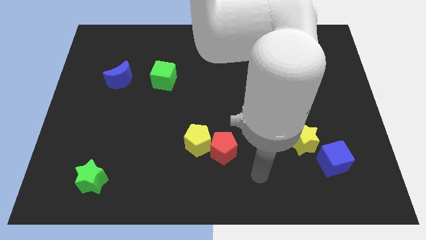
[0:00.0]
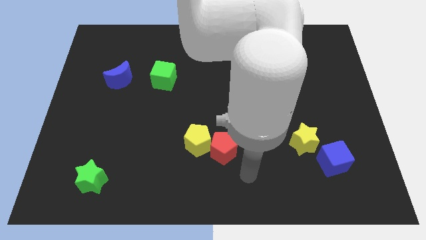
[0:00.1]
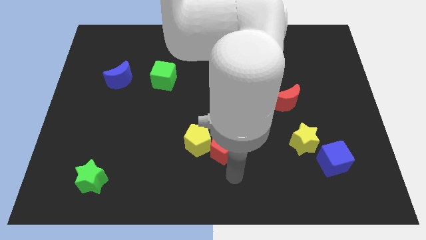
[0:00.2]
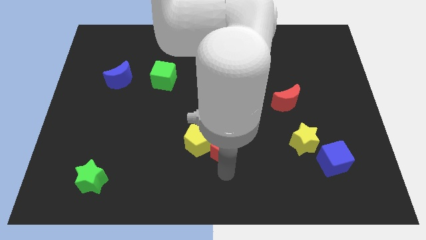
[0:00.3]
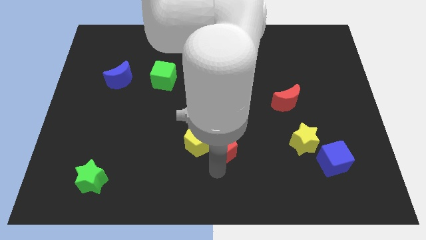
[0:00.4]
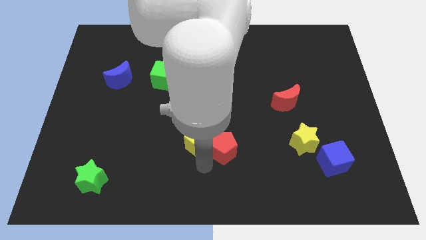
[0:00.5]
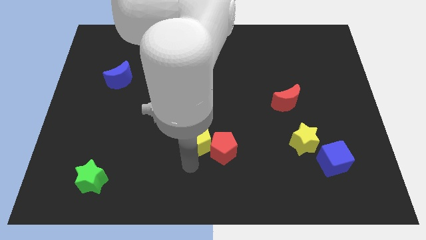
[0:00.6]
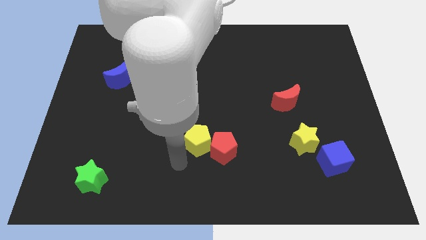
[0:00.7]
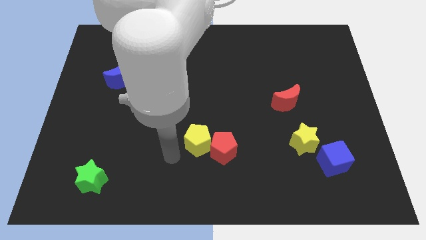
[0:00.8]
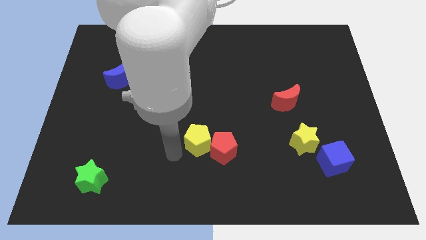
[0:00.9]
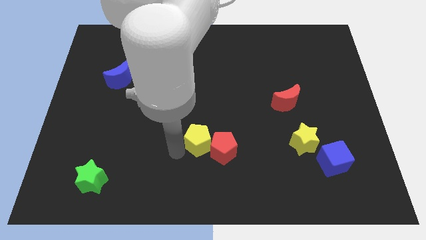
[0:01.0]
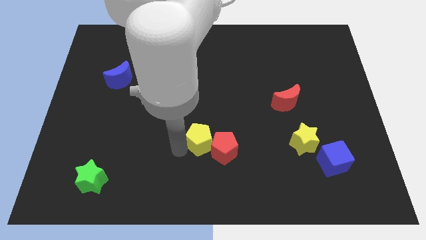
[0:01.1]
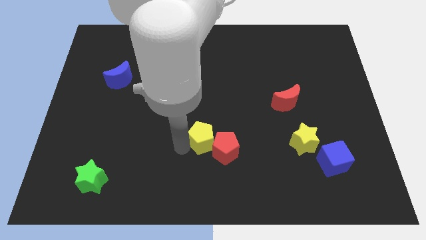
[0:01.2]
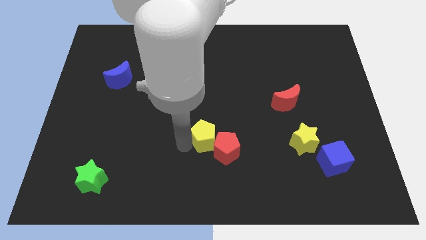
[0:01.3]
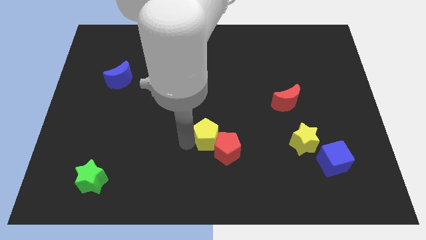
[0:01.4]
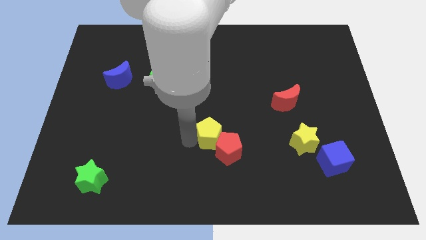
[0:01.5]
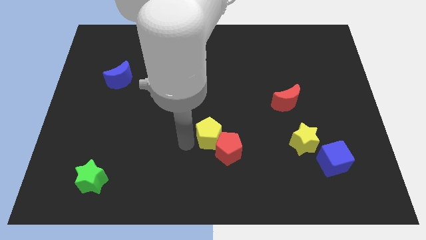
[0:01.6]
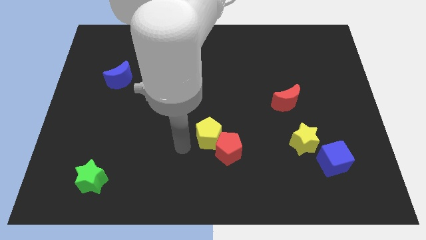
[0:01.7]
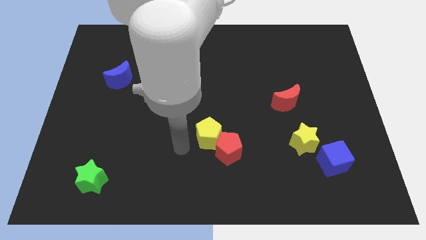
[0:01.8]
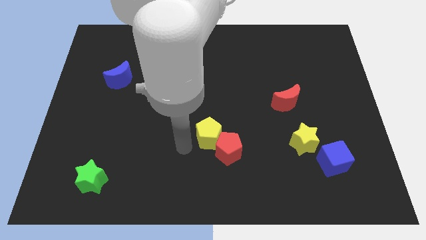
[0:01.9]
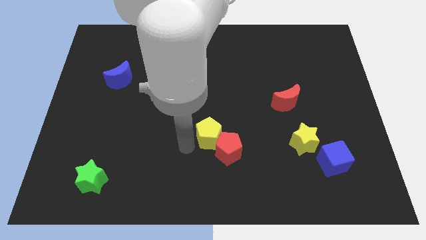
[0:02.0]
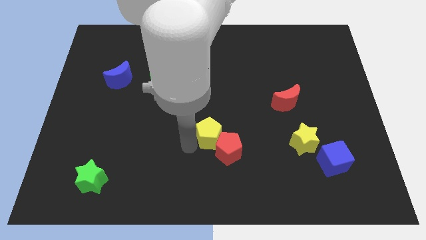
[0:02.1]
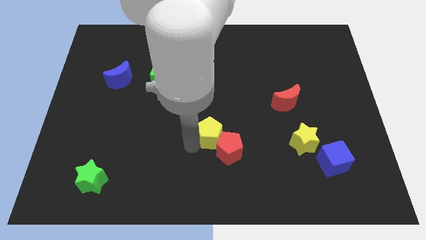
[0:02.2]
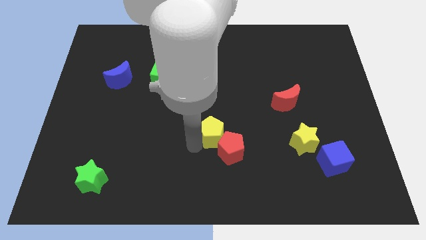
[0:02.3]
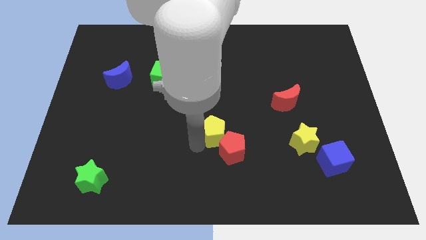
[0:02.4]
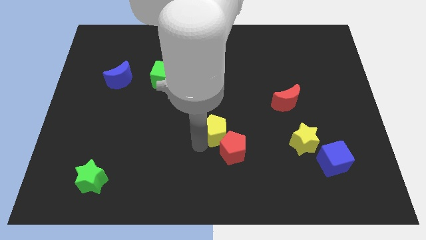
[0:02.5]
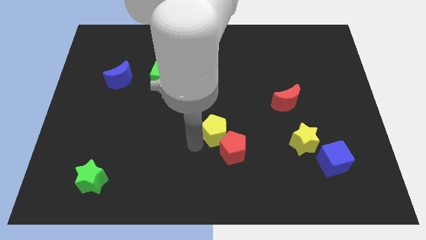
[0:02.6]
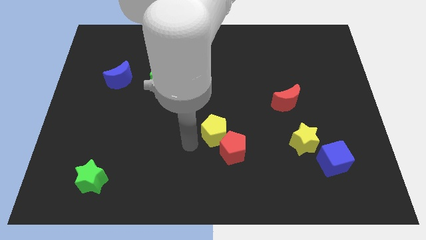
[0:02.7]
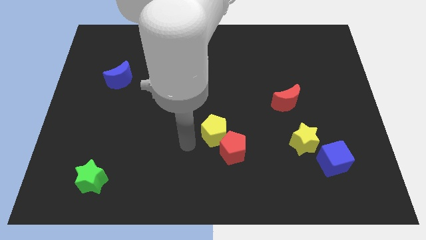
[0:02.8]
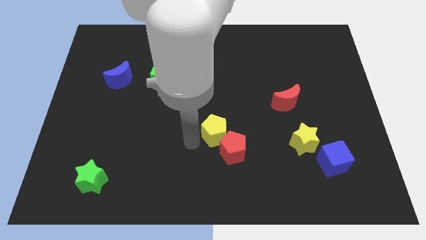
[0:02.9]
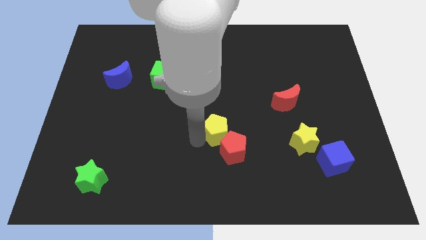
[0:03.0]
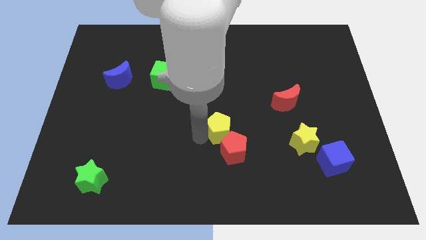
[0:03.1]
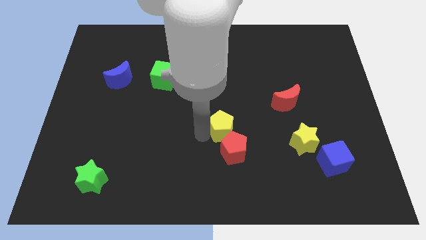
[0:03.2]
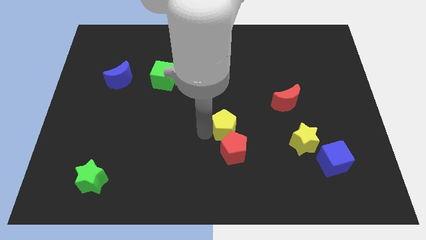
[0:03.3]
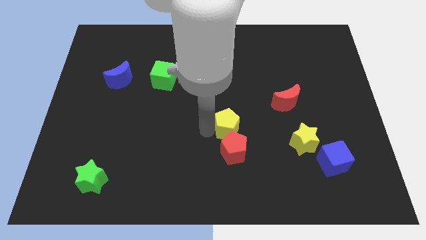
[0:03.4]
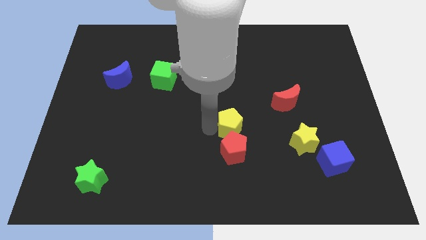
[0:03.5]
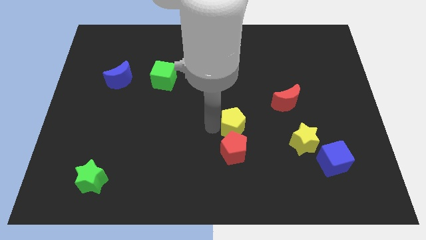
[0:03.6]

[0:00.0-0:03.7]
slightly push the yellow pentagon to the right

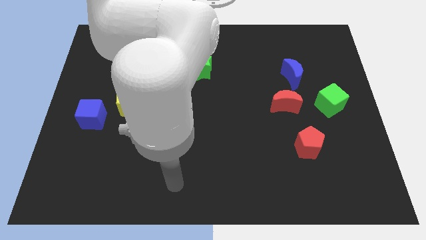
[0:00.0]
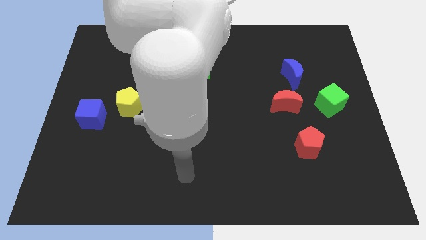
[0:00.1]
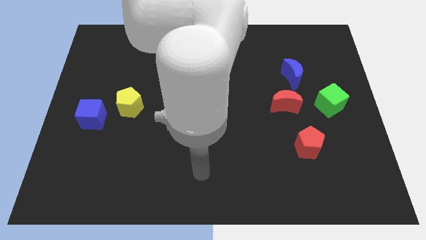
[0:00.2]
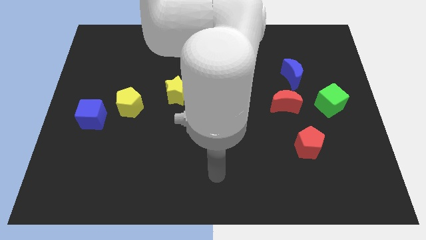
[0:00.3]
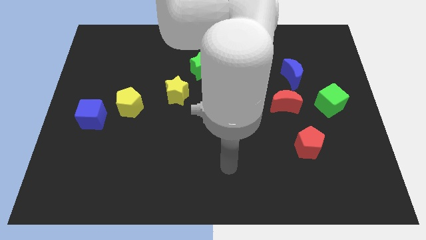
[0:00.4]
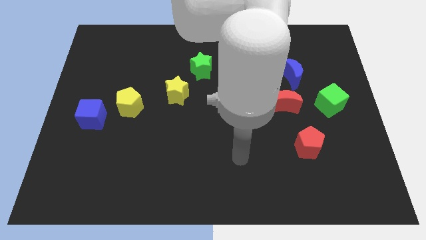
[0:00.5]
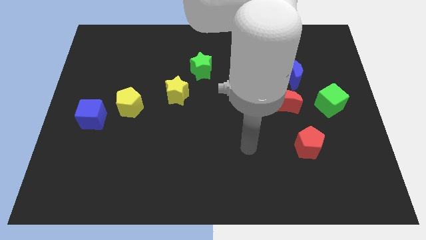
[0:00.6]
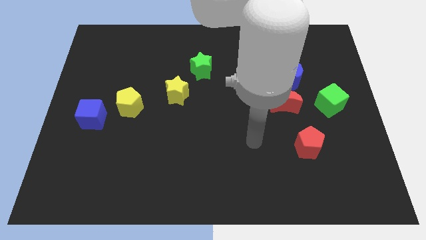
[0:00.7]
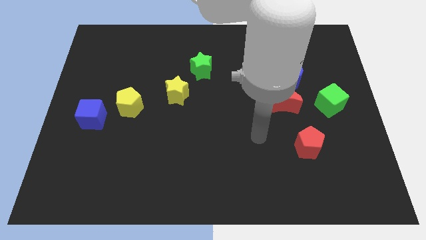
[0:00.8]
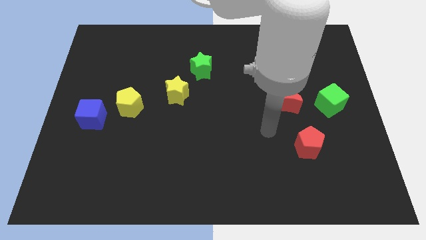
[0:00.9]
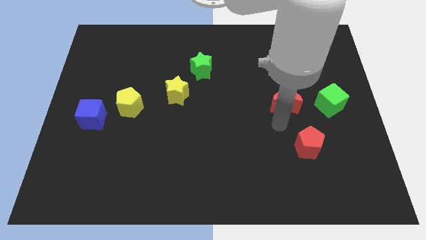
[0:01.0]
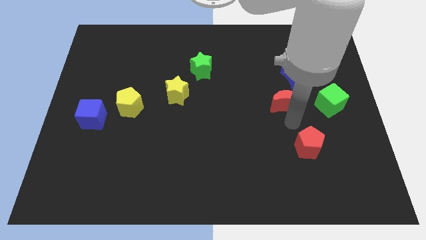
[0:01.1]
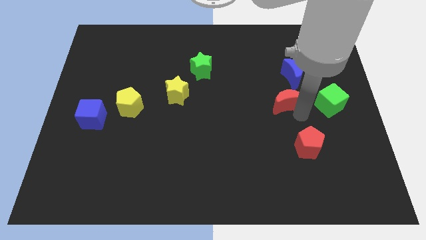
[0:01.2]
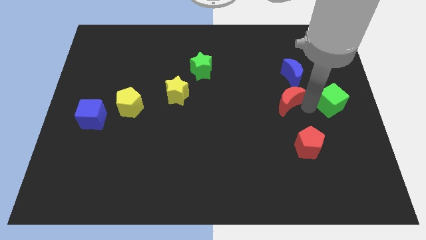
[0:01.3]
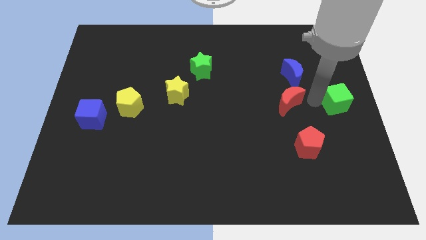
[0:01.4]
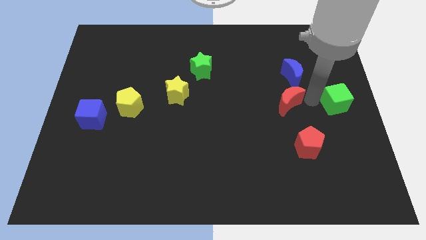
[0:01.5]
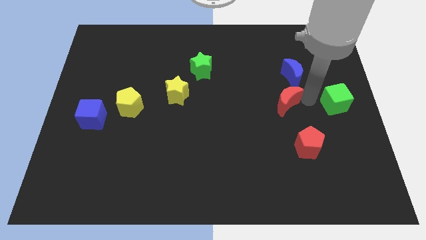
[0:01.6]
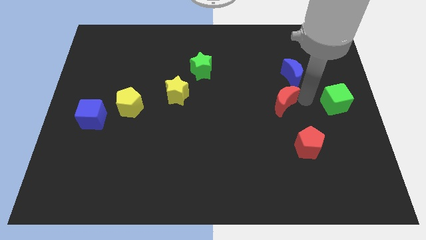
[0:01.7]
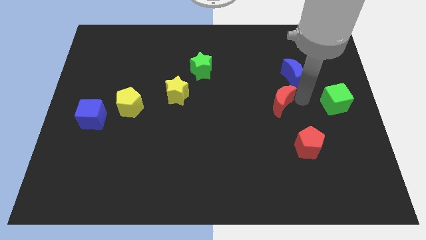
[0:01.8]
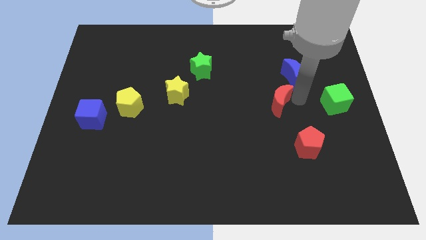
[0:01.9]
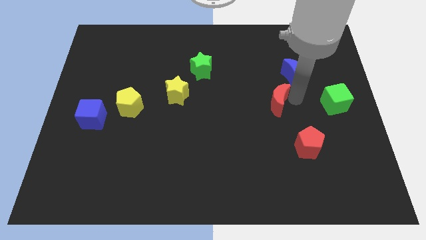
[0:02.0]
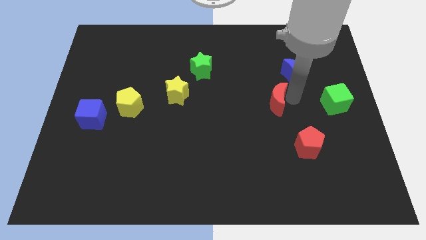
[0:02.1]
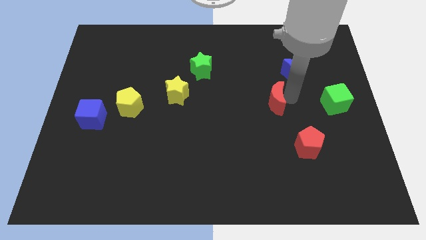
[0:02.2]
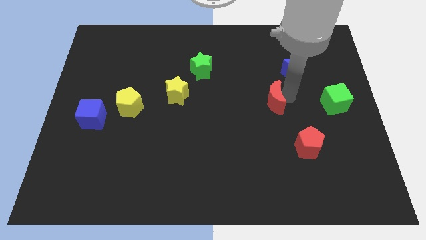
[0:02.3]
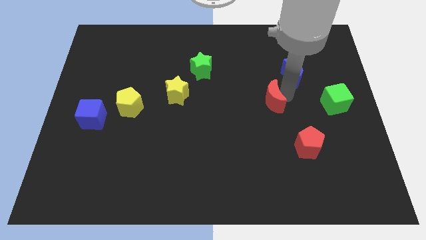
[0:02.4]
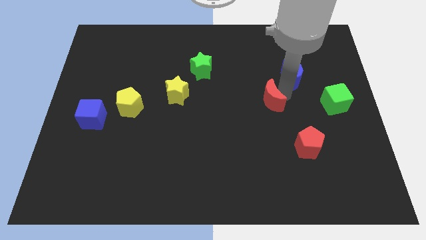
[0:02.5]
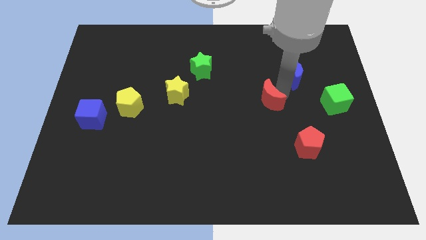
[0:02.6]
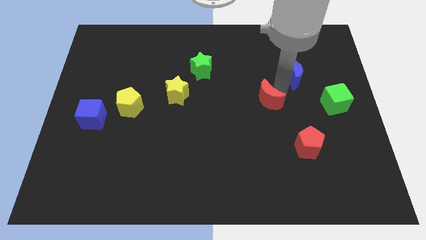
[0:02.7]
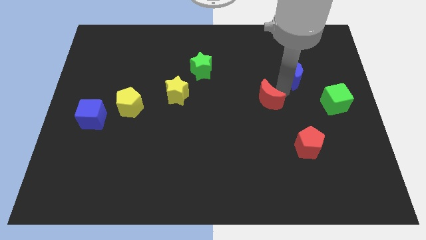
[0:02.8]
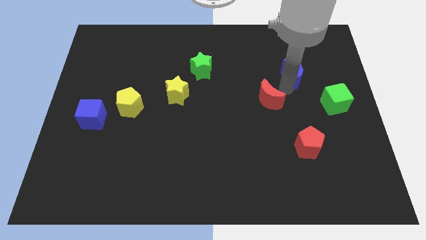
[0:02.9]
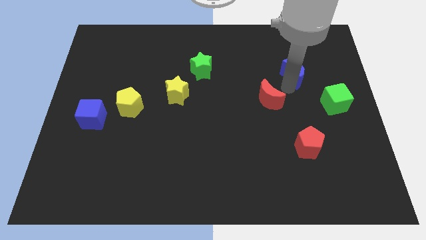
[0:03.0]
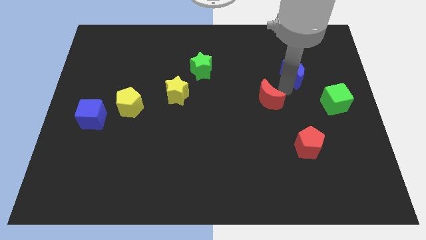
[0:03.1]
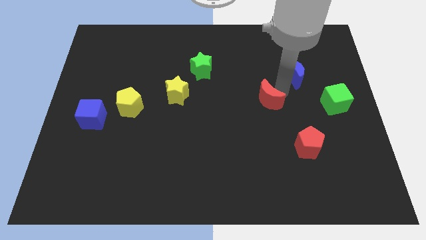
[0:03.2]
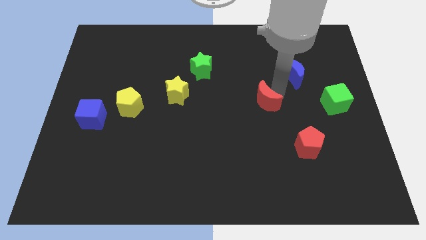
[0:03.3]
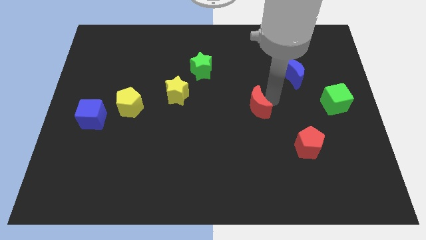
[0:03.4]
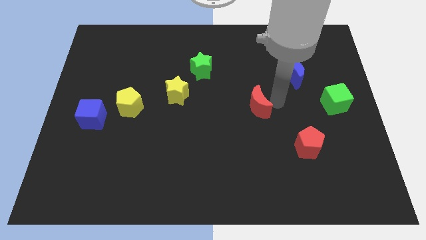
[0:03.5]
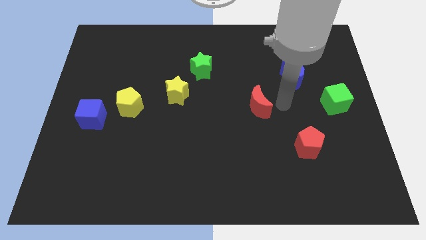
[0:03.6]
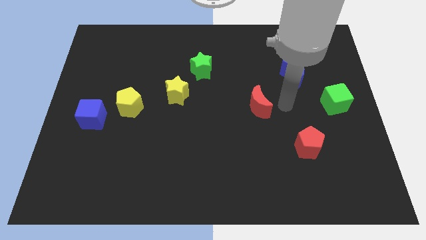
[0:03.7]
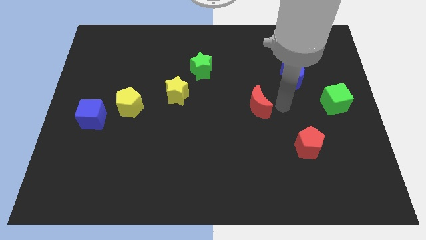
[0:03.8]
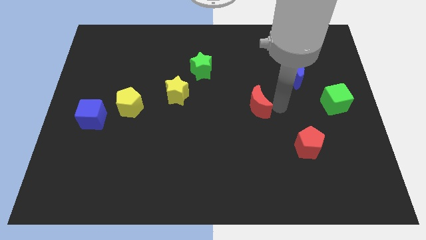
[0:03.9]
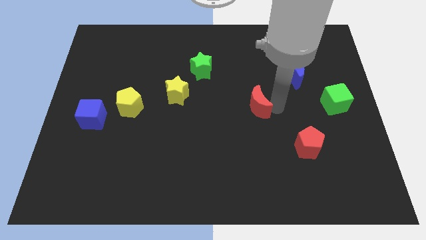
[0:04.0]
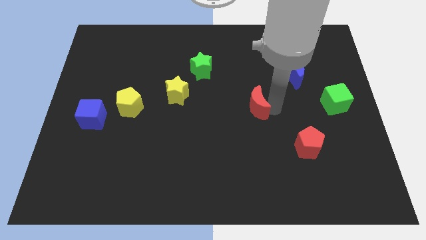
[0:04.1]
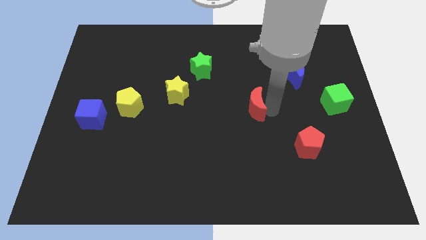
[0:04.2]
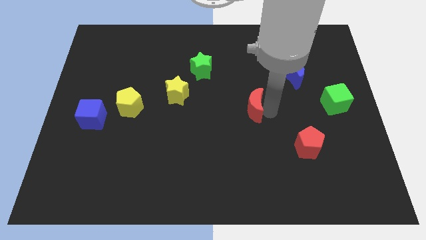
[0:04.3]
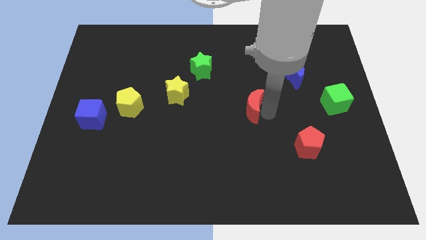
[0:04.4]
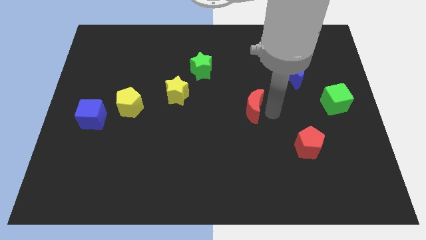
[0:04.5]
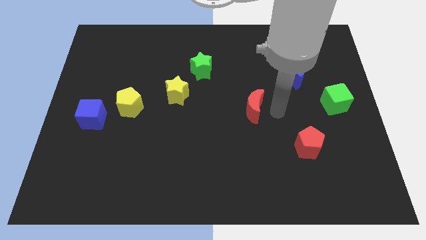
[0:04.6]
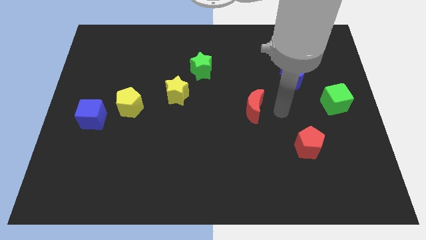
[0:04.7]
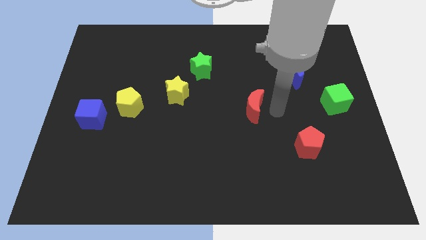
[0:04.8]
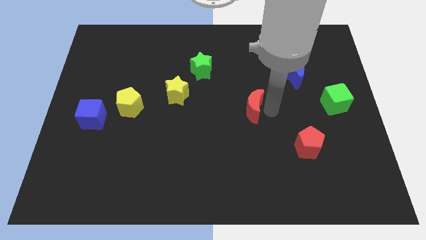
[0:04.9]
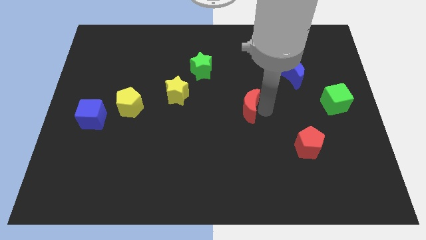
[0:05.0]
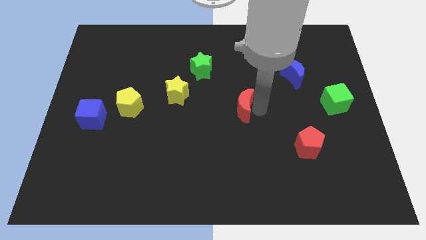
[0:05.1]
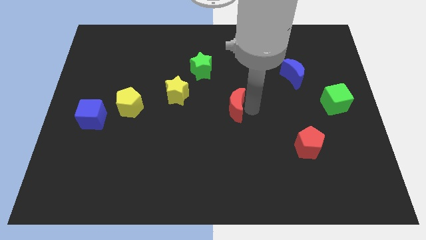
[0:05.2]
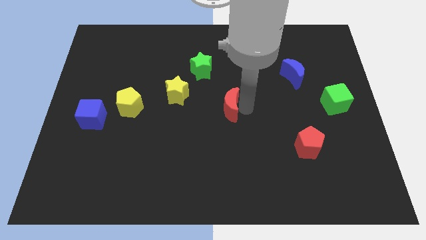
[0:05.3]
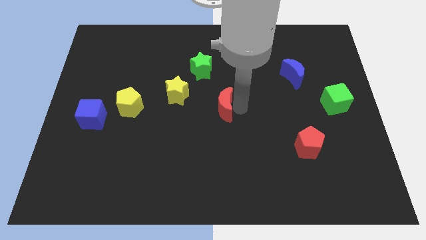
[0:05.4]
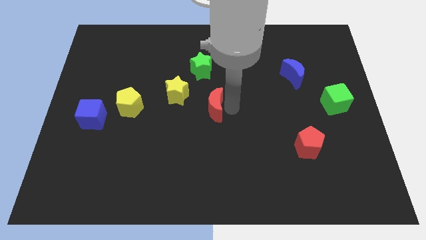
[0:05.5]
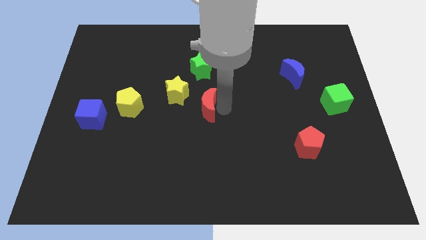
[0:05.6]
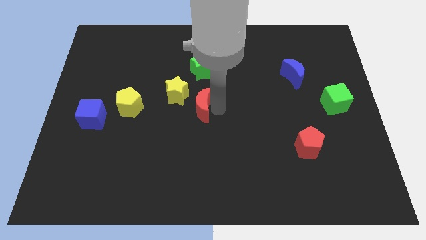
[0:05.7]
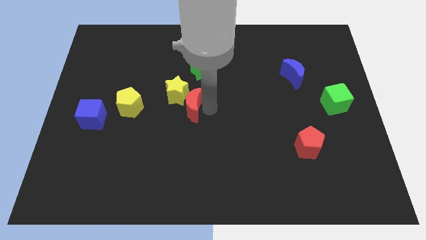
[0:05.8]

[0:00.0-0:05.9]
slide the red moon to the left
